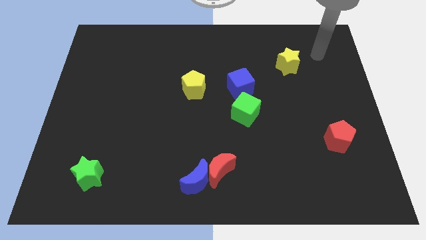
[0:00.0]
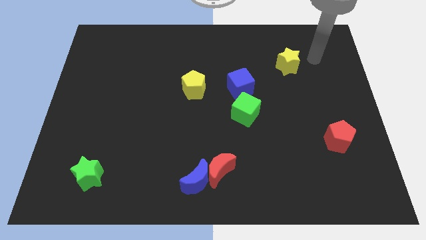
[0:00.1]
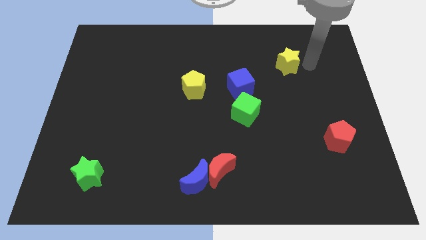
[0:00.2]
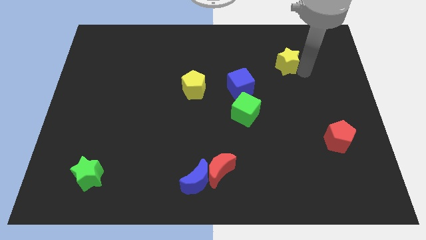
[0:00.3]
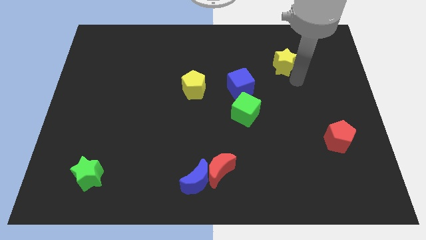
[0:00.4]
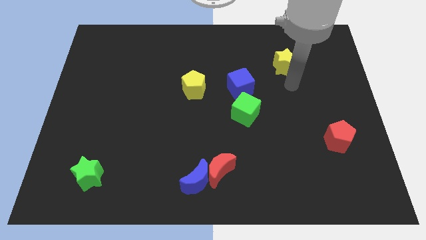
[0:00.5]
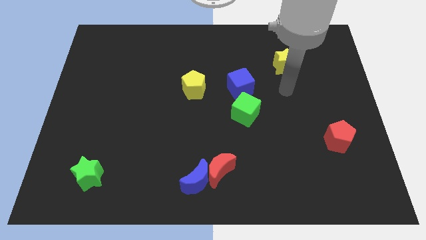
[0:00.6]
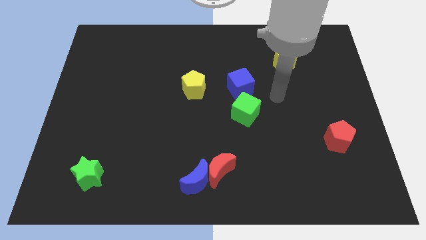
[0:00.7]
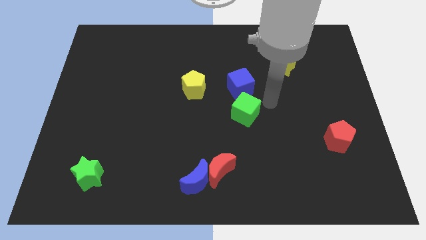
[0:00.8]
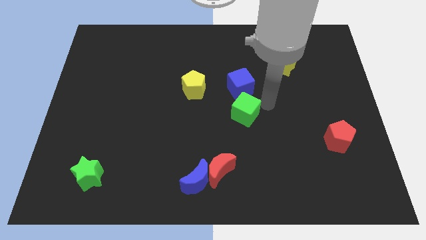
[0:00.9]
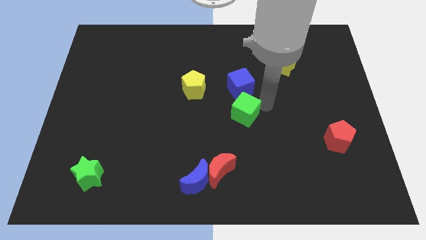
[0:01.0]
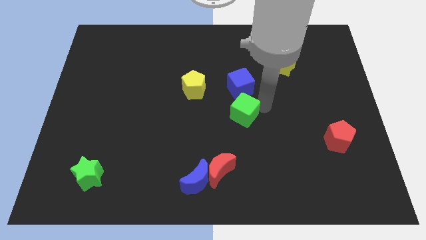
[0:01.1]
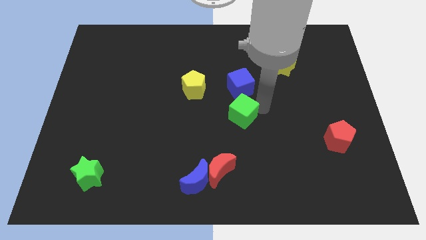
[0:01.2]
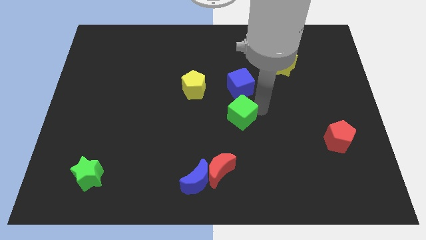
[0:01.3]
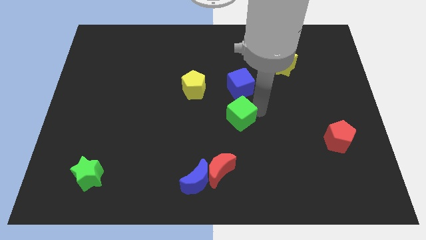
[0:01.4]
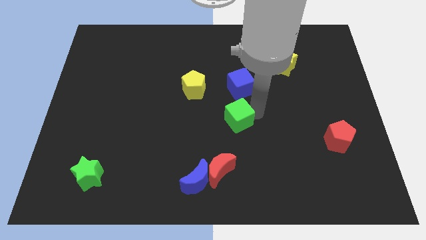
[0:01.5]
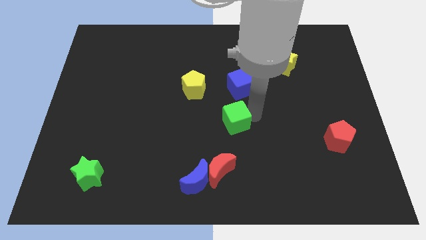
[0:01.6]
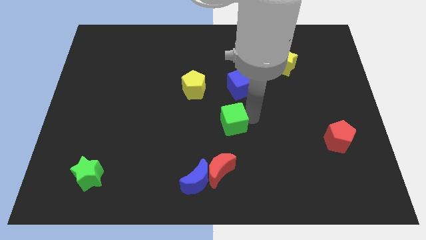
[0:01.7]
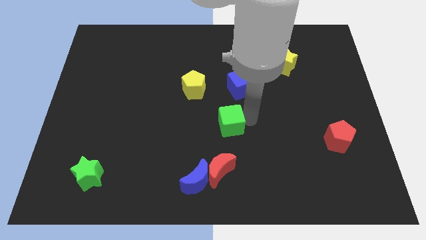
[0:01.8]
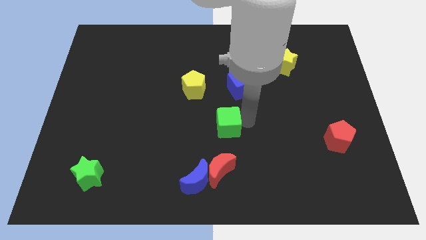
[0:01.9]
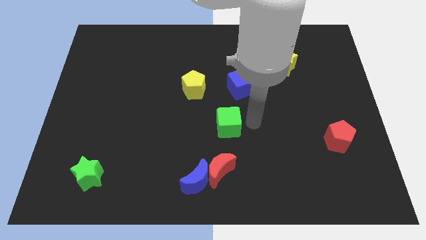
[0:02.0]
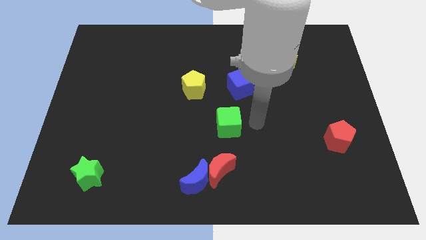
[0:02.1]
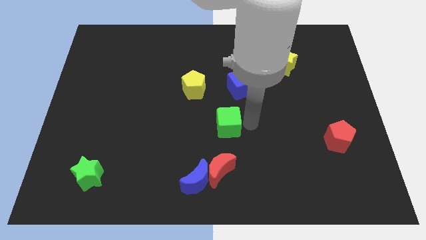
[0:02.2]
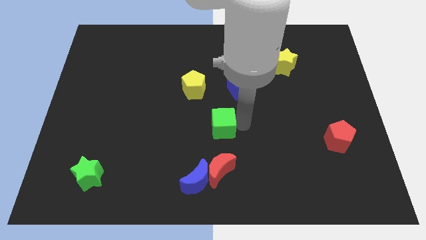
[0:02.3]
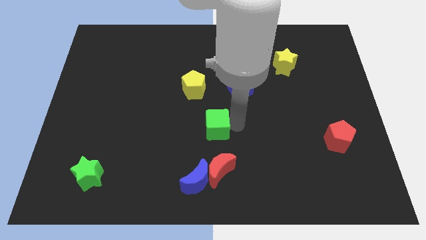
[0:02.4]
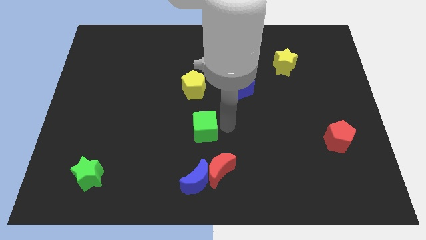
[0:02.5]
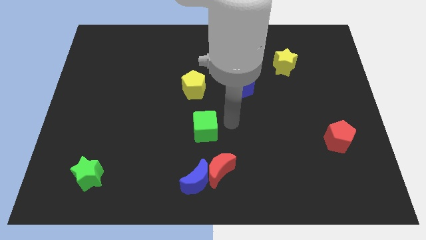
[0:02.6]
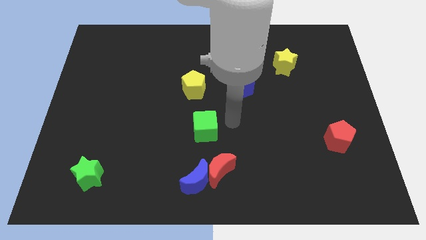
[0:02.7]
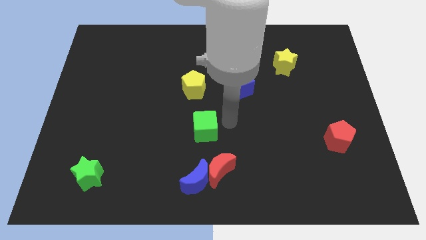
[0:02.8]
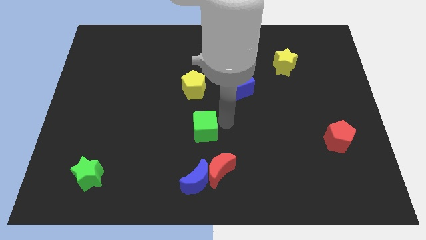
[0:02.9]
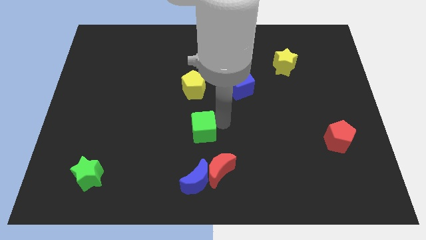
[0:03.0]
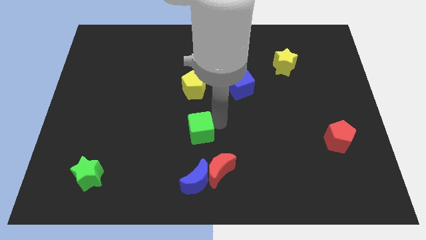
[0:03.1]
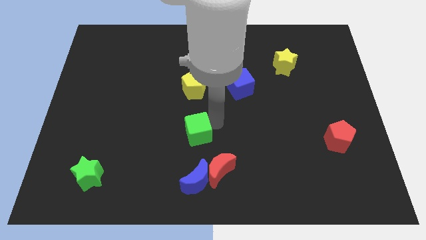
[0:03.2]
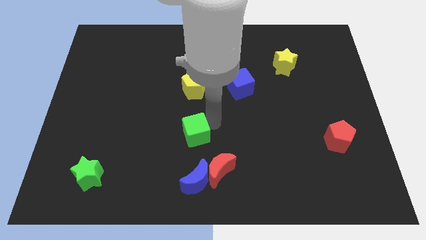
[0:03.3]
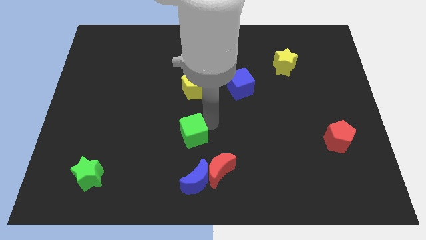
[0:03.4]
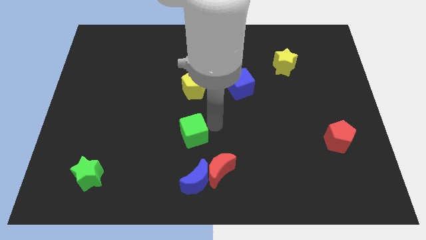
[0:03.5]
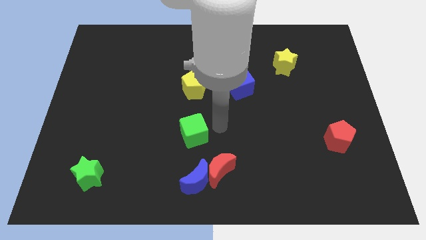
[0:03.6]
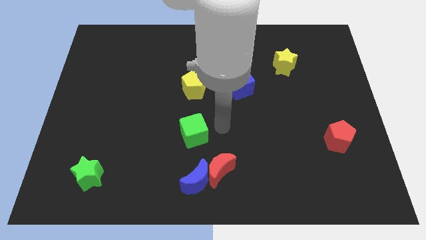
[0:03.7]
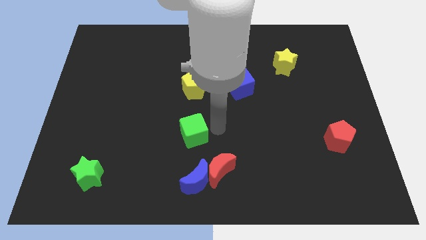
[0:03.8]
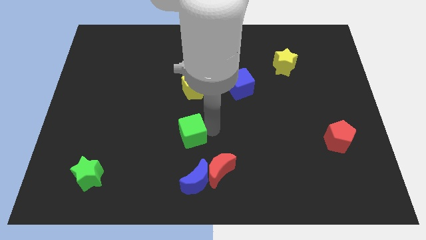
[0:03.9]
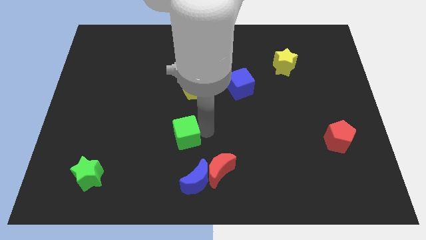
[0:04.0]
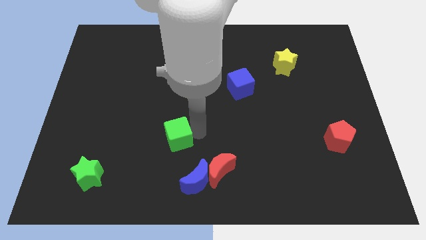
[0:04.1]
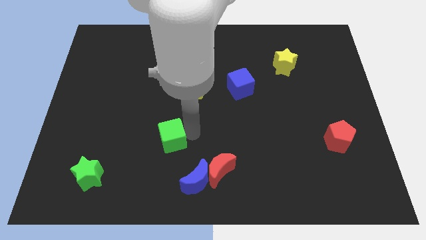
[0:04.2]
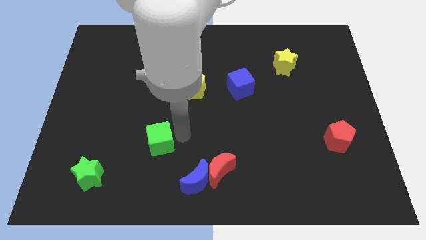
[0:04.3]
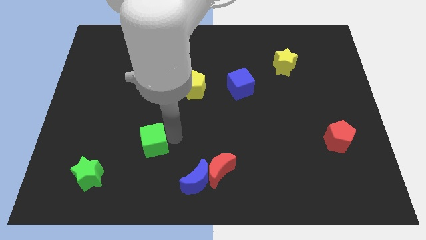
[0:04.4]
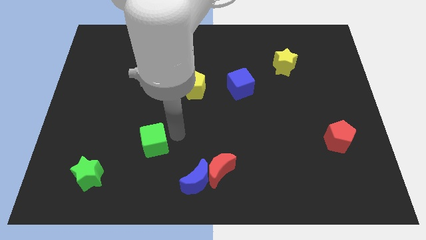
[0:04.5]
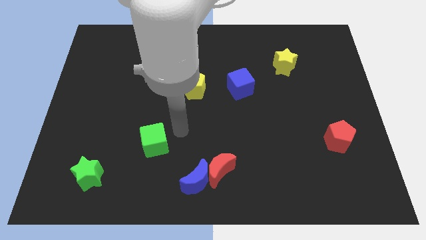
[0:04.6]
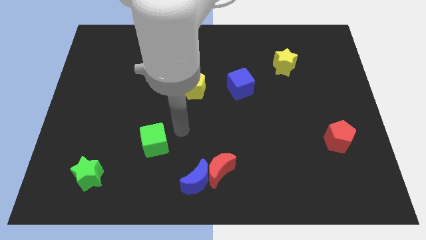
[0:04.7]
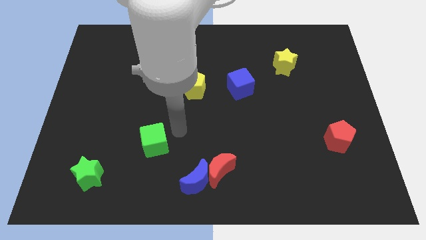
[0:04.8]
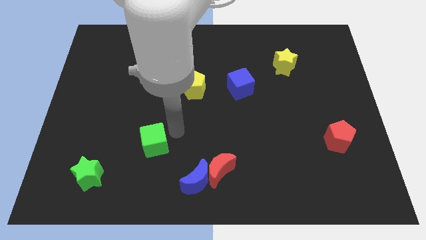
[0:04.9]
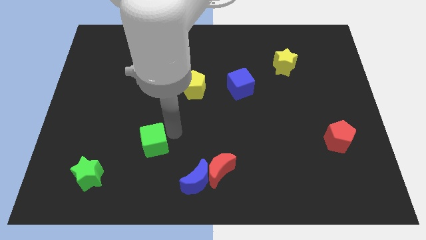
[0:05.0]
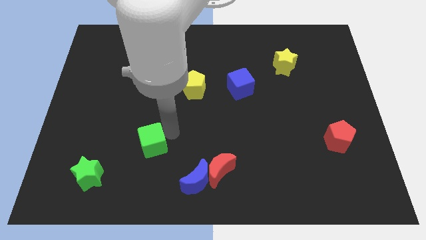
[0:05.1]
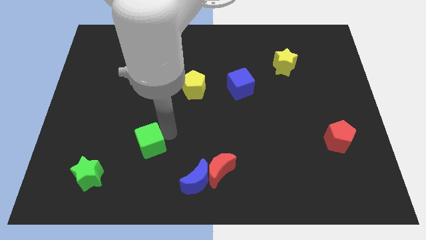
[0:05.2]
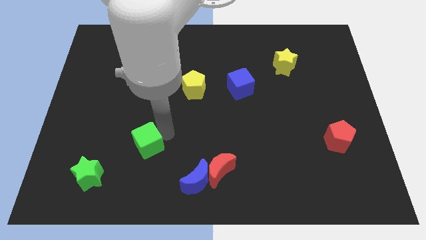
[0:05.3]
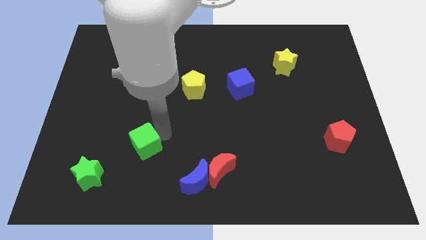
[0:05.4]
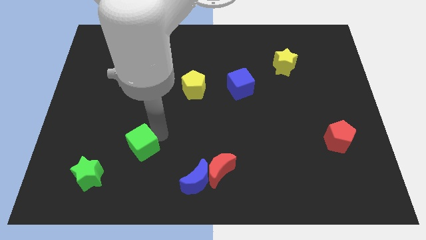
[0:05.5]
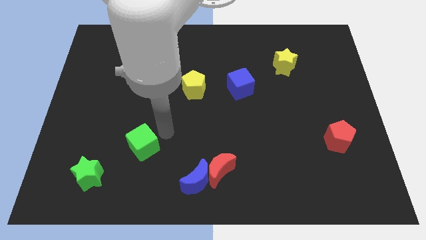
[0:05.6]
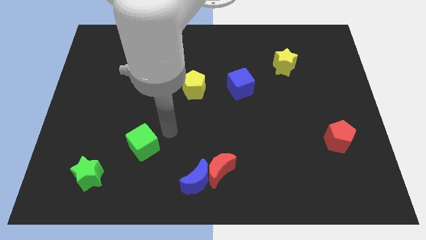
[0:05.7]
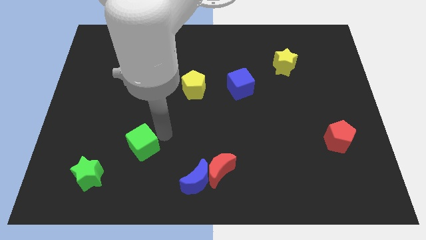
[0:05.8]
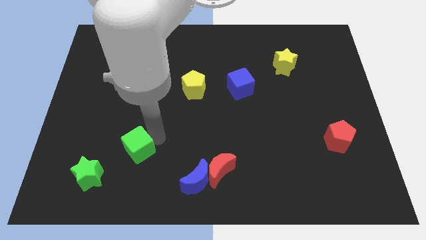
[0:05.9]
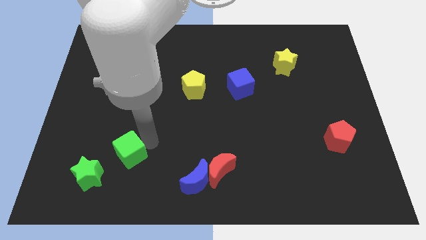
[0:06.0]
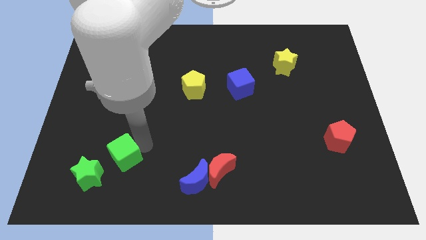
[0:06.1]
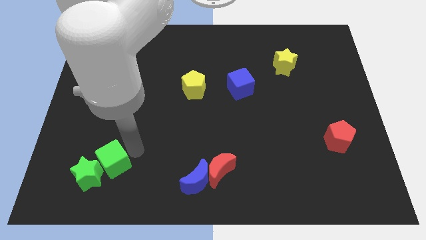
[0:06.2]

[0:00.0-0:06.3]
put the green cube to the green star

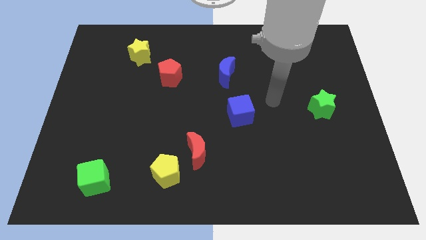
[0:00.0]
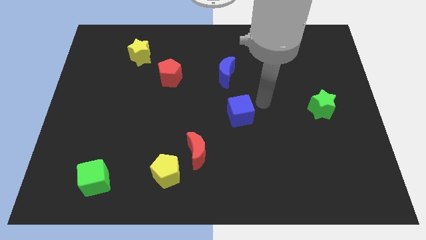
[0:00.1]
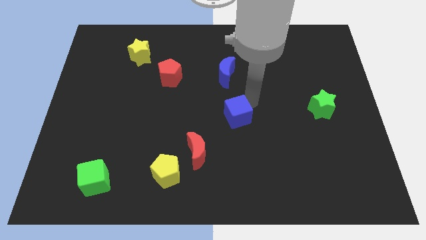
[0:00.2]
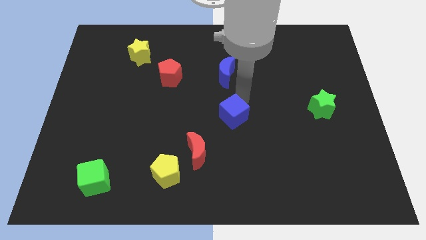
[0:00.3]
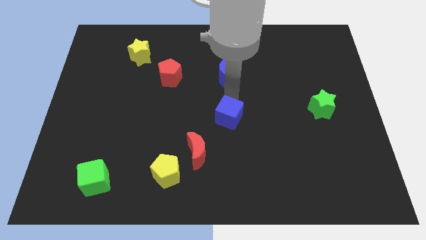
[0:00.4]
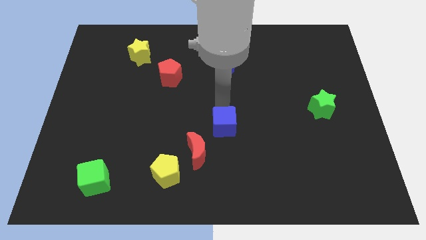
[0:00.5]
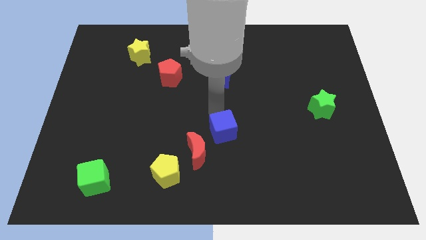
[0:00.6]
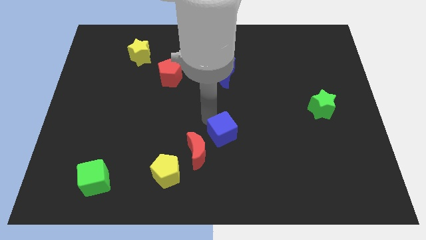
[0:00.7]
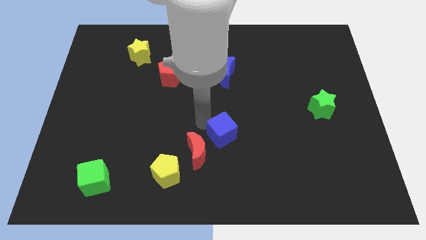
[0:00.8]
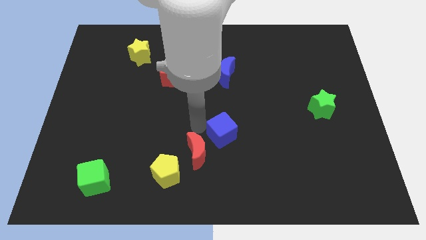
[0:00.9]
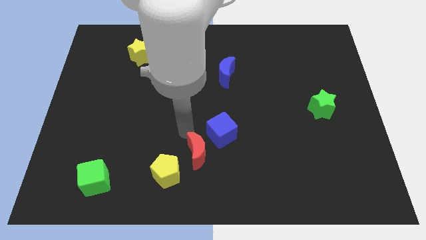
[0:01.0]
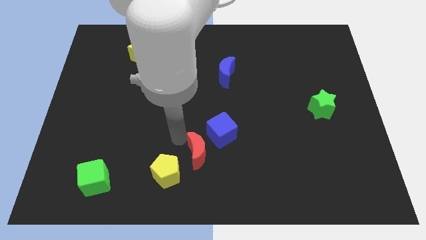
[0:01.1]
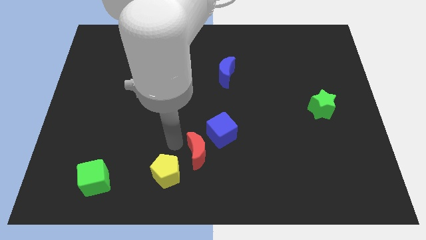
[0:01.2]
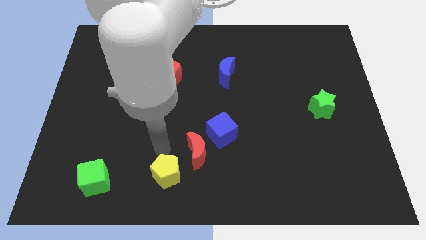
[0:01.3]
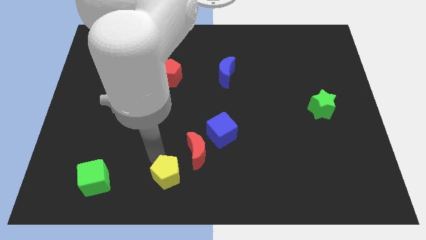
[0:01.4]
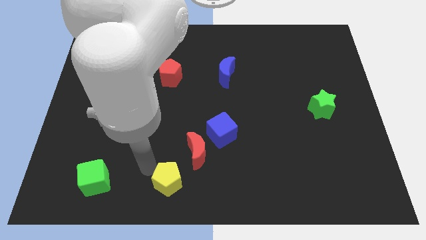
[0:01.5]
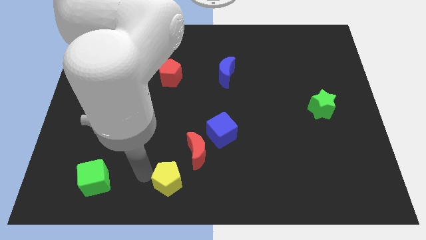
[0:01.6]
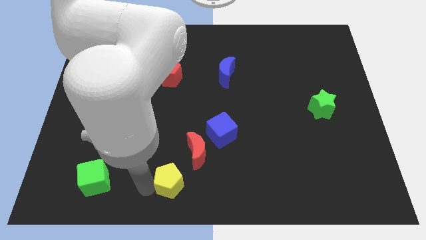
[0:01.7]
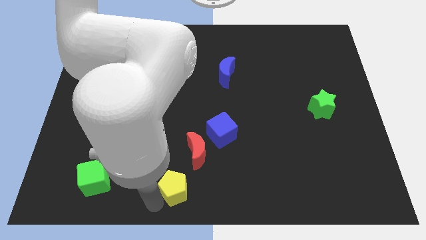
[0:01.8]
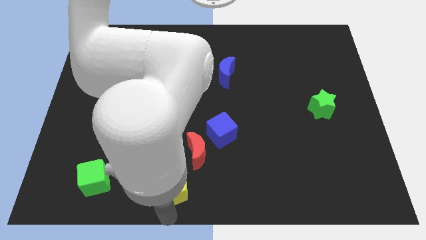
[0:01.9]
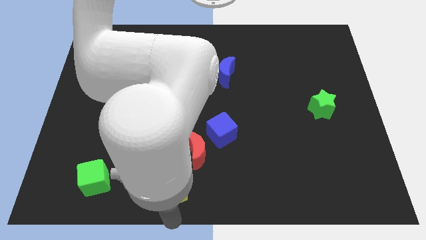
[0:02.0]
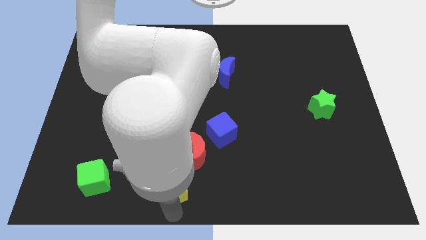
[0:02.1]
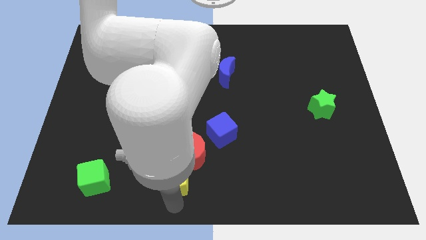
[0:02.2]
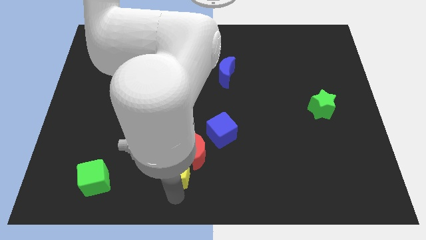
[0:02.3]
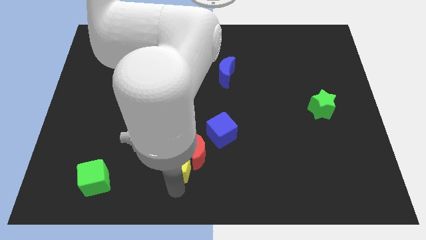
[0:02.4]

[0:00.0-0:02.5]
push the yellow pentagon to the red moon
